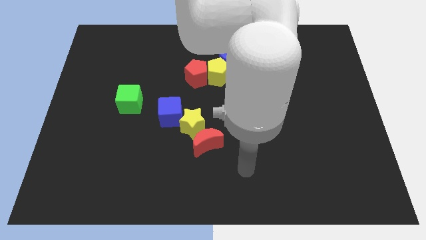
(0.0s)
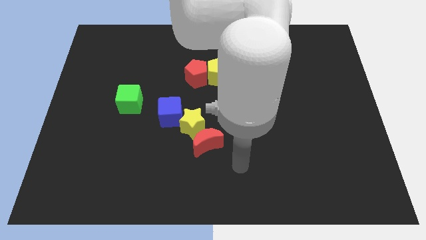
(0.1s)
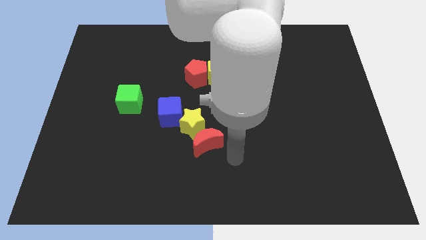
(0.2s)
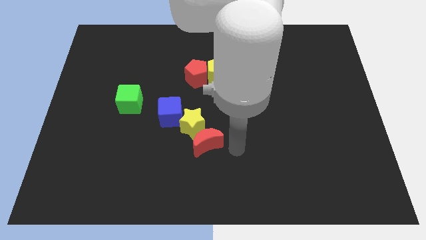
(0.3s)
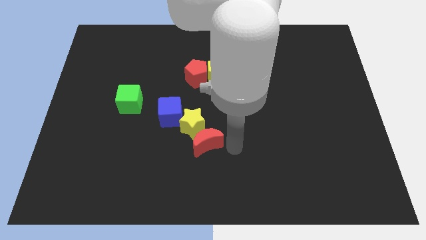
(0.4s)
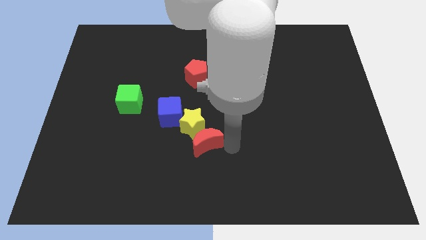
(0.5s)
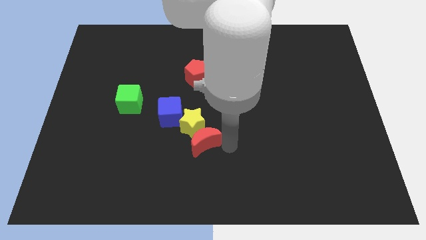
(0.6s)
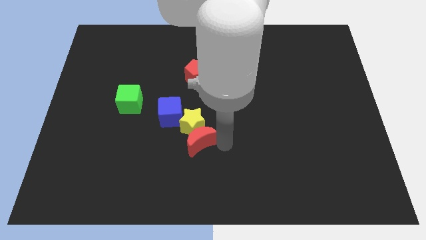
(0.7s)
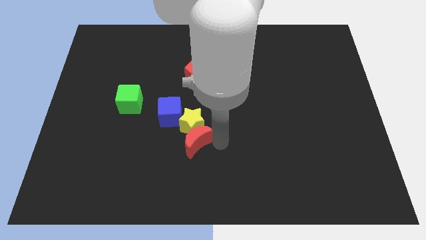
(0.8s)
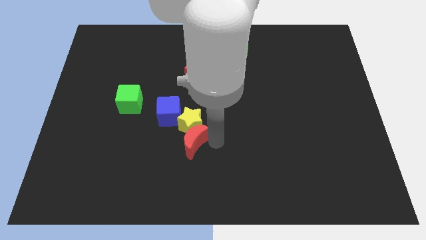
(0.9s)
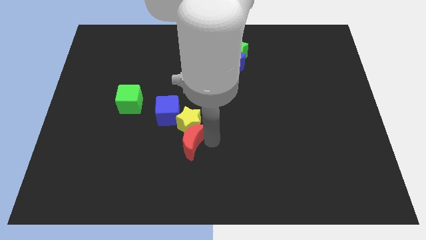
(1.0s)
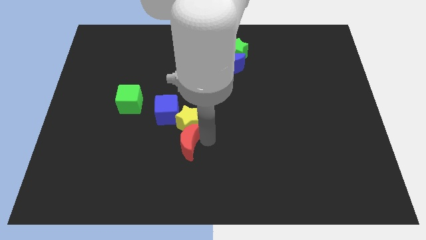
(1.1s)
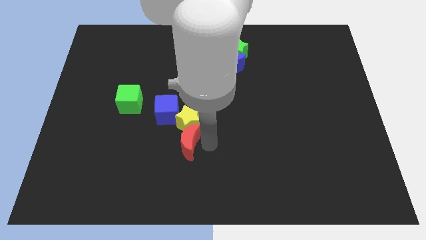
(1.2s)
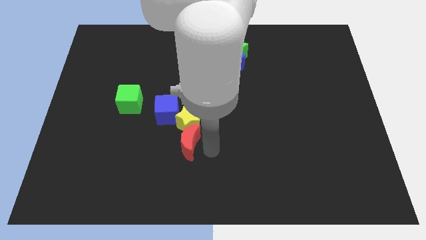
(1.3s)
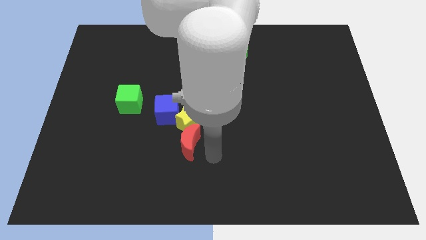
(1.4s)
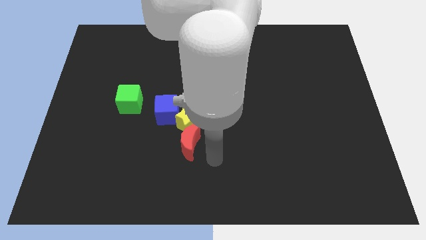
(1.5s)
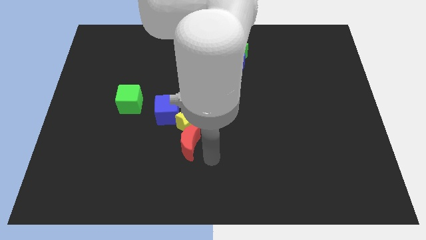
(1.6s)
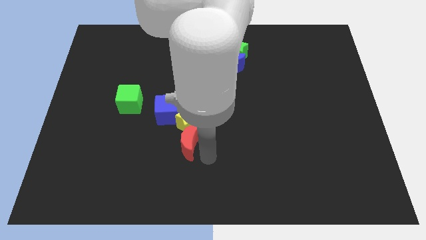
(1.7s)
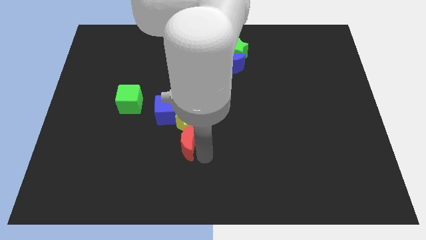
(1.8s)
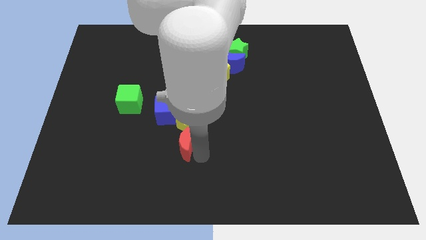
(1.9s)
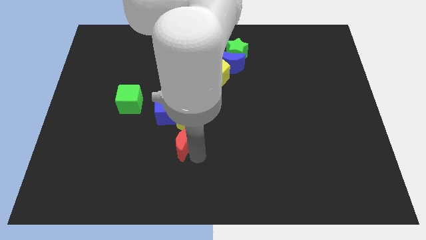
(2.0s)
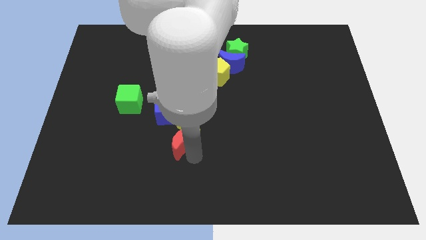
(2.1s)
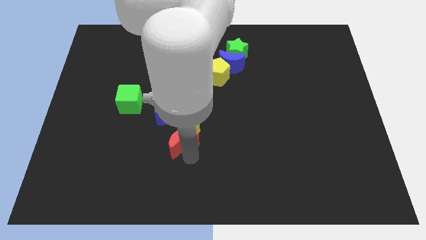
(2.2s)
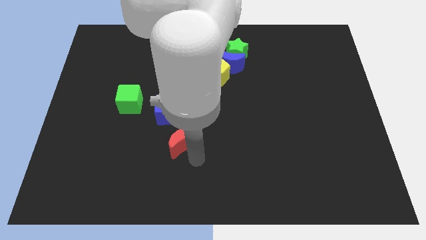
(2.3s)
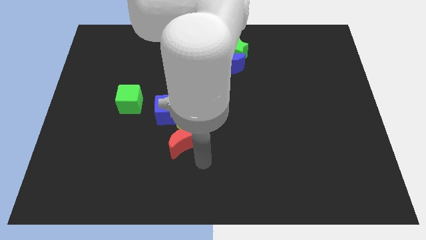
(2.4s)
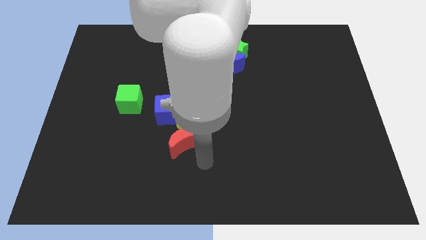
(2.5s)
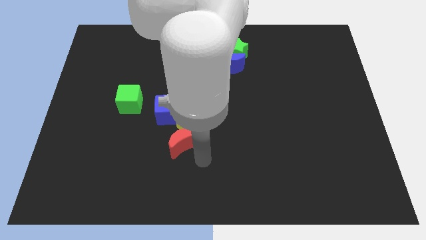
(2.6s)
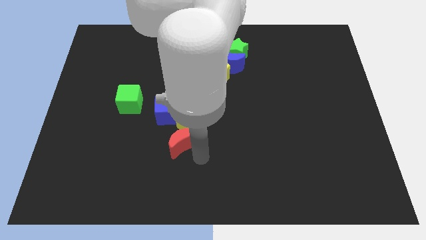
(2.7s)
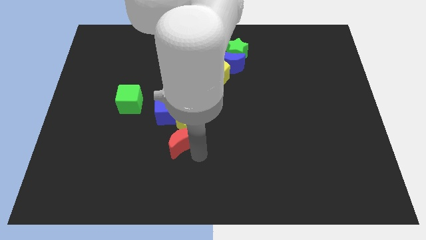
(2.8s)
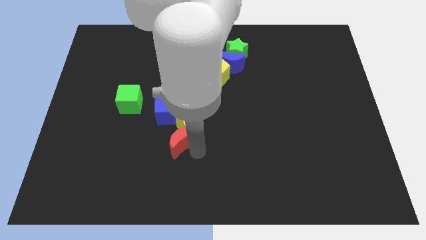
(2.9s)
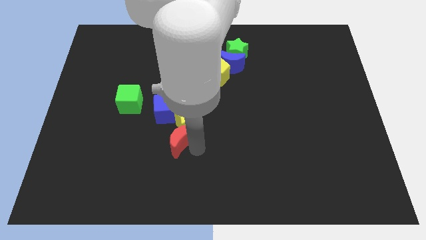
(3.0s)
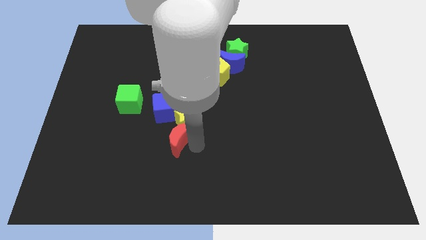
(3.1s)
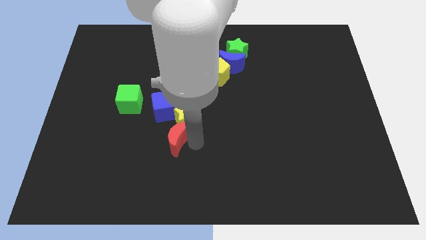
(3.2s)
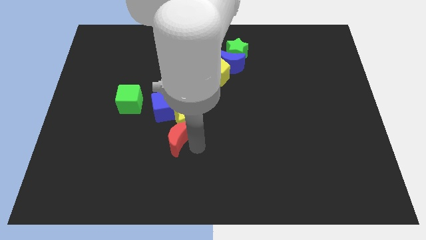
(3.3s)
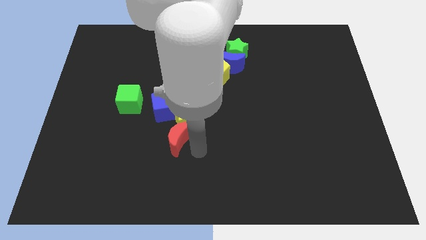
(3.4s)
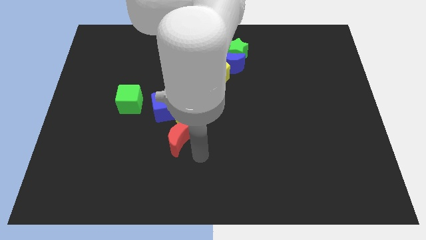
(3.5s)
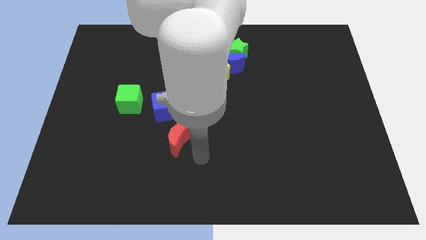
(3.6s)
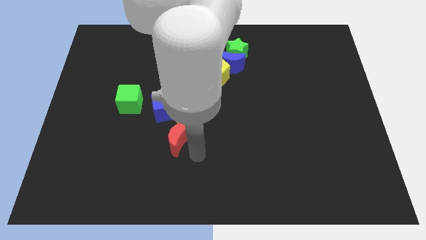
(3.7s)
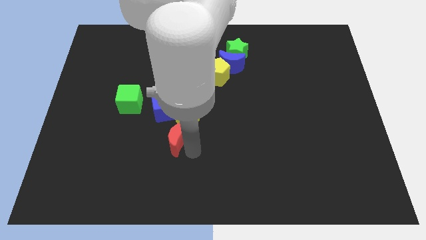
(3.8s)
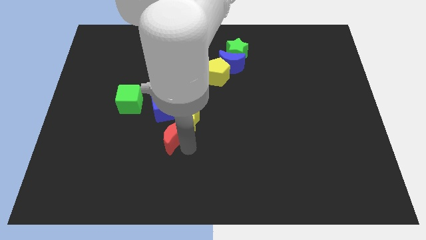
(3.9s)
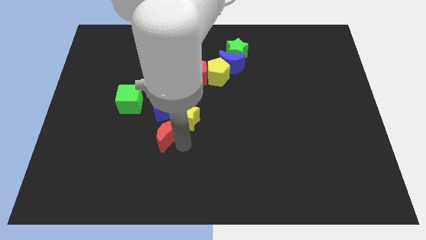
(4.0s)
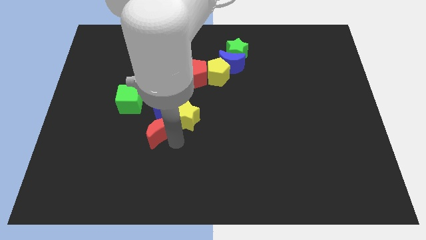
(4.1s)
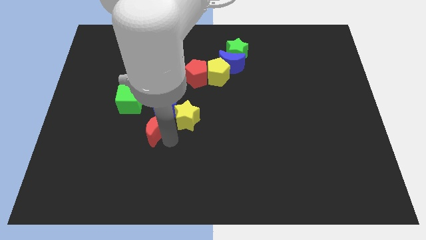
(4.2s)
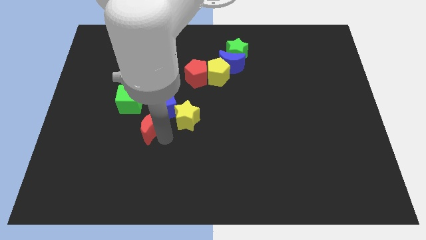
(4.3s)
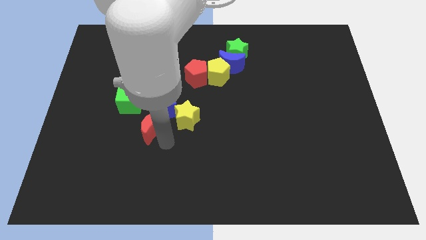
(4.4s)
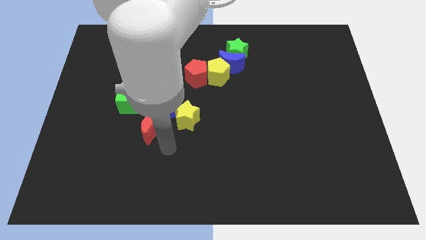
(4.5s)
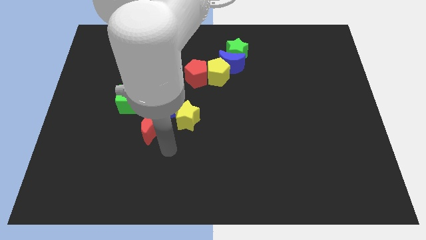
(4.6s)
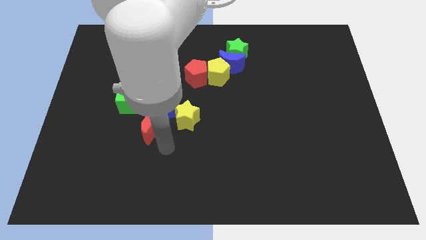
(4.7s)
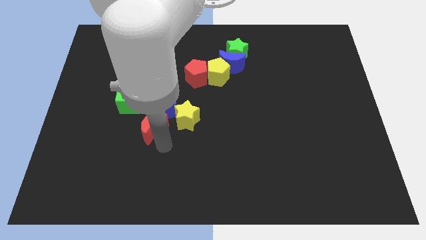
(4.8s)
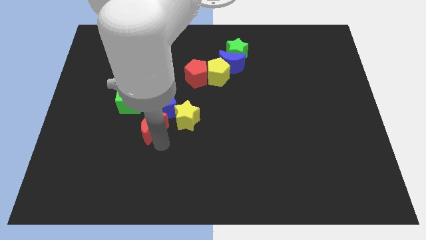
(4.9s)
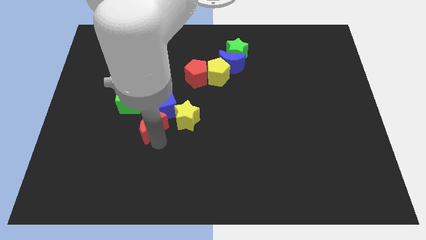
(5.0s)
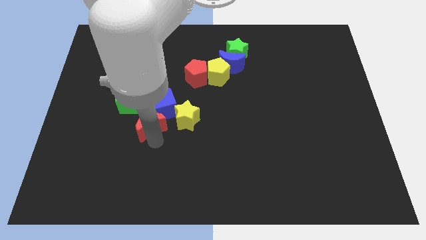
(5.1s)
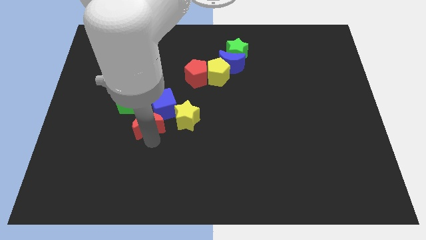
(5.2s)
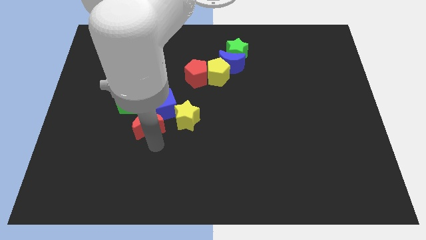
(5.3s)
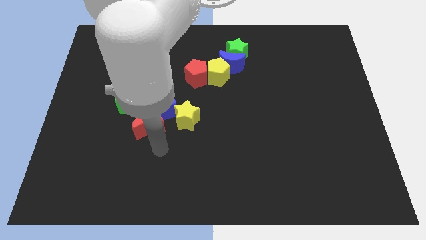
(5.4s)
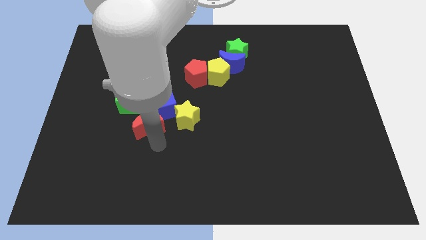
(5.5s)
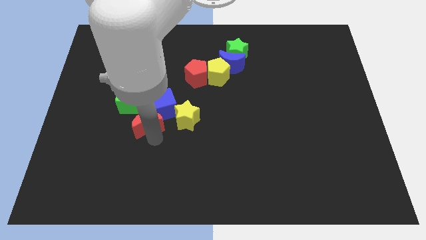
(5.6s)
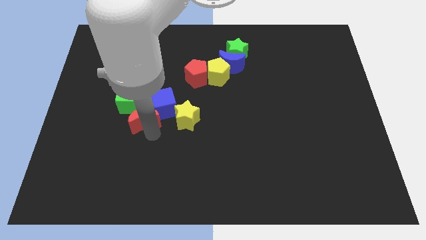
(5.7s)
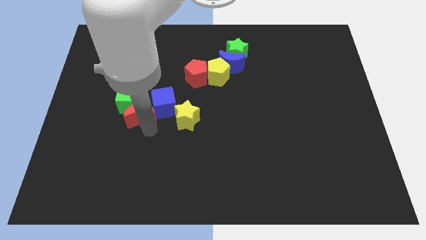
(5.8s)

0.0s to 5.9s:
push the red moon next to the green cube

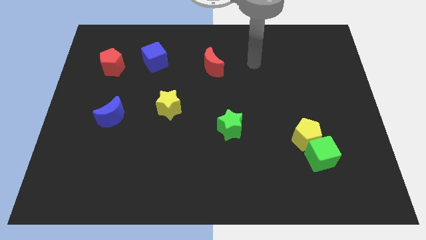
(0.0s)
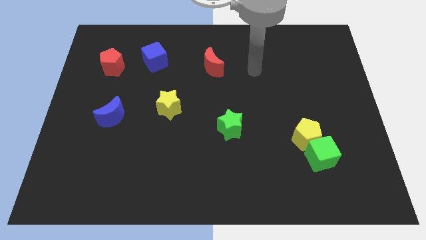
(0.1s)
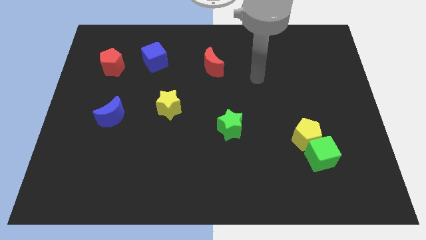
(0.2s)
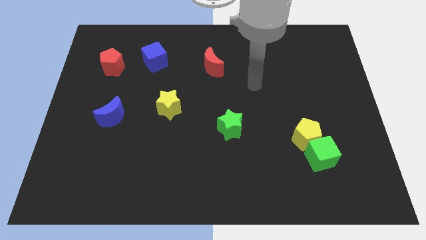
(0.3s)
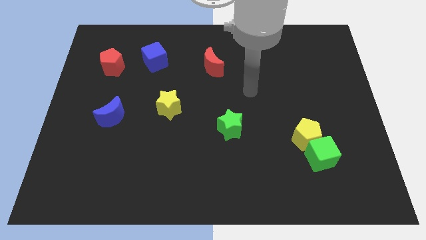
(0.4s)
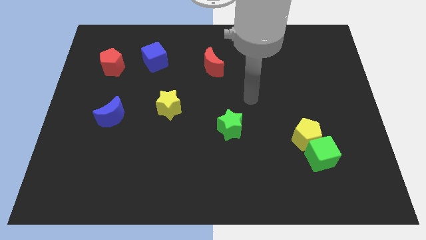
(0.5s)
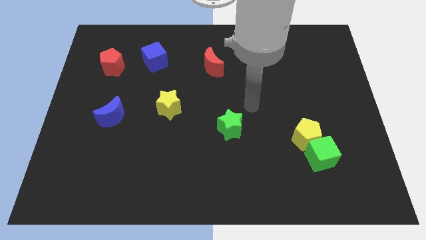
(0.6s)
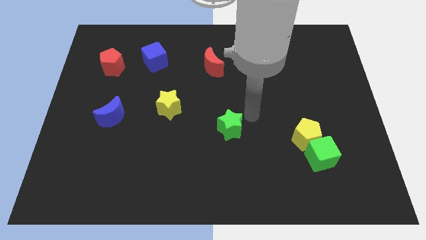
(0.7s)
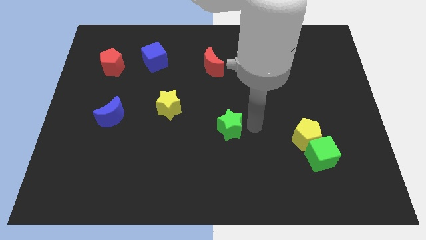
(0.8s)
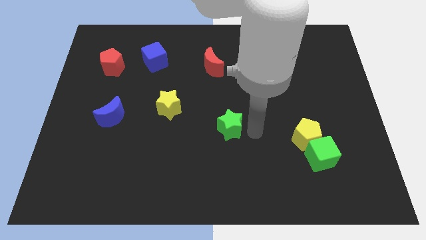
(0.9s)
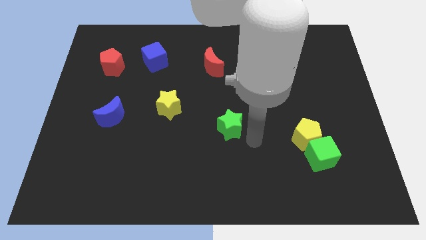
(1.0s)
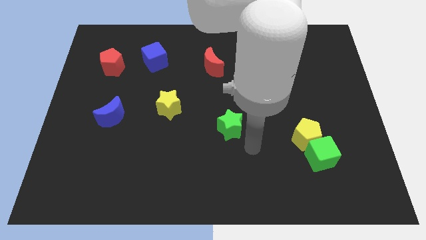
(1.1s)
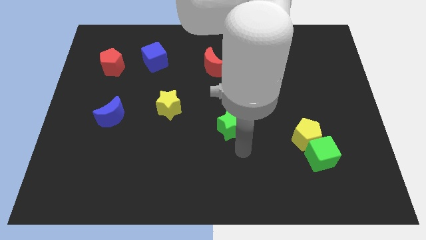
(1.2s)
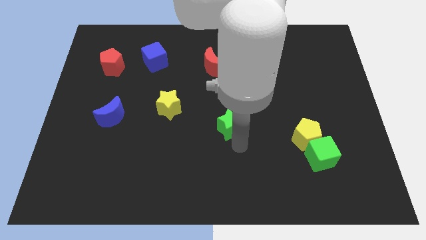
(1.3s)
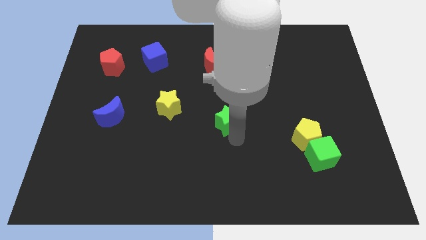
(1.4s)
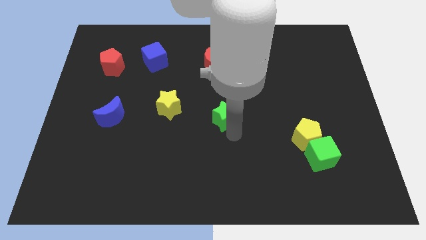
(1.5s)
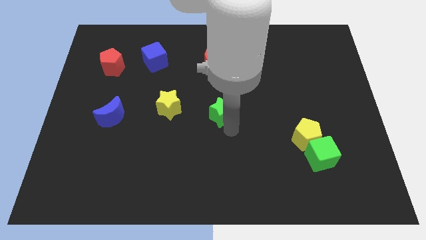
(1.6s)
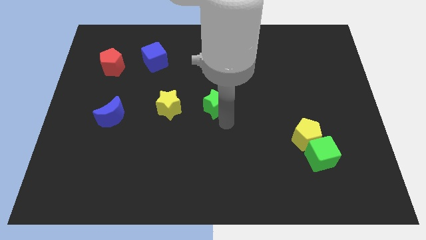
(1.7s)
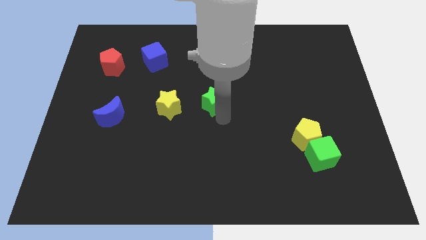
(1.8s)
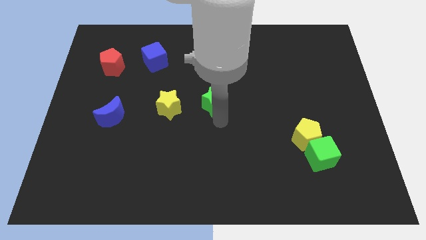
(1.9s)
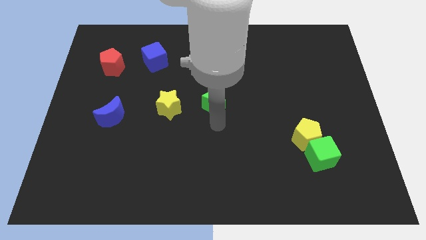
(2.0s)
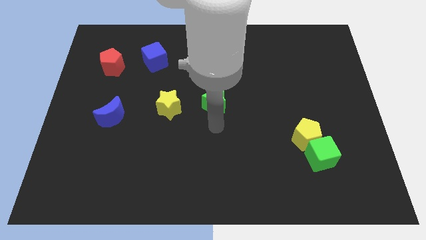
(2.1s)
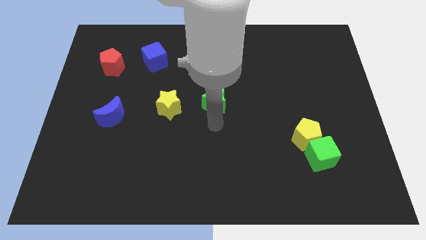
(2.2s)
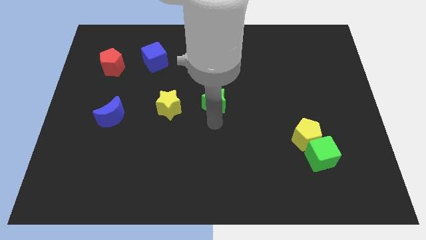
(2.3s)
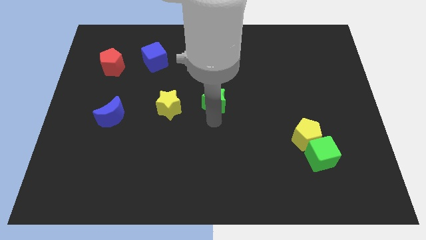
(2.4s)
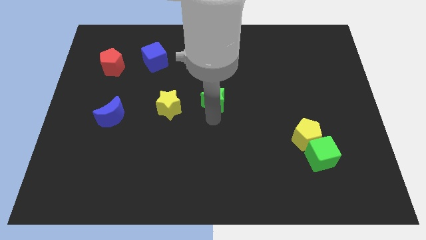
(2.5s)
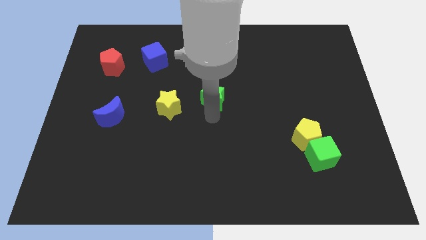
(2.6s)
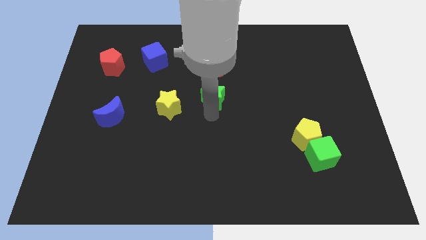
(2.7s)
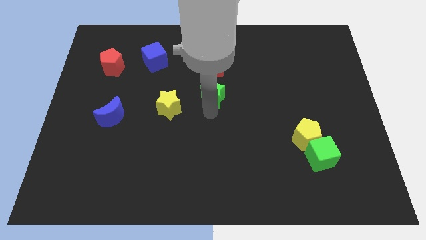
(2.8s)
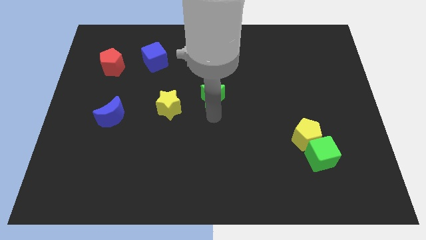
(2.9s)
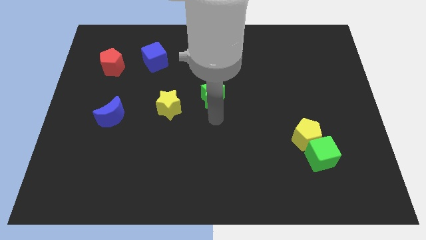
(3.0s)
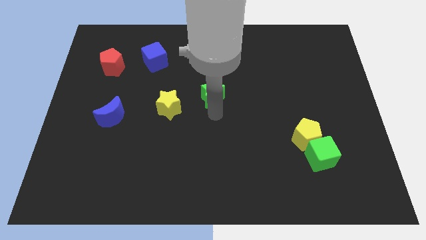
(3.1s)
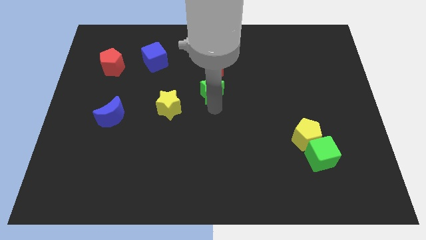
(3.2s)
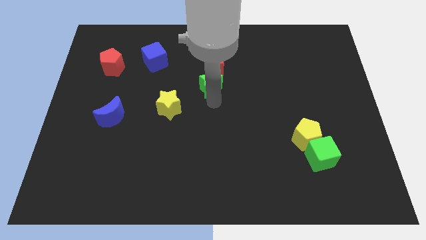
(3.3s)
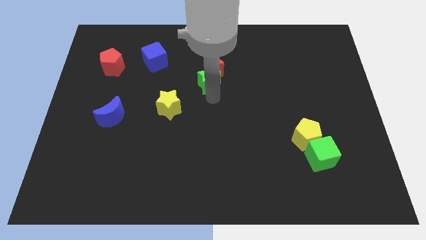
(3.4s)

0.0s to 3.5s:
move the green star towards the red moon
